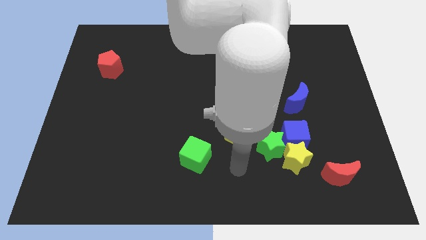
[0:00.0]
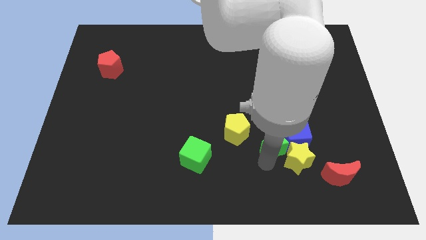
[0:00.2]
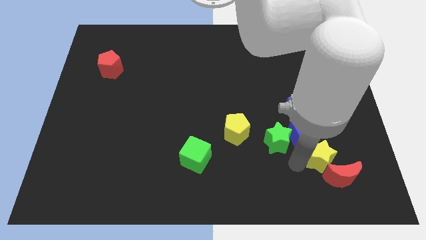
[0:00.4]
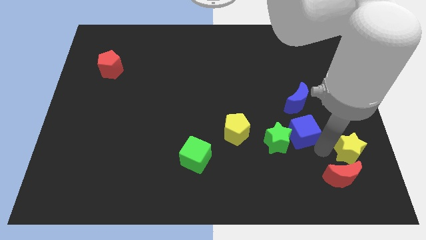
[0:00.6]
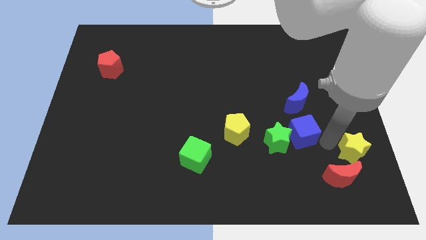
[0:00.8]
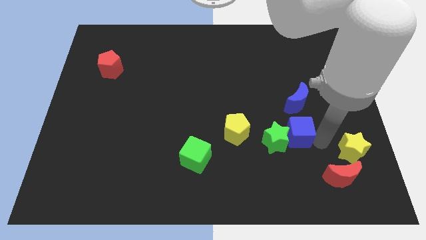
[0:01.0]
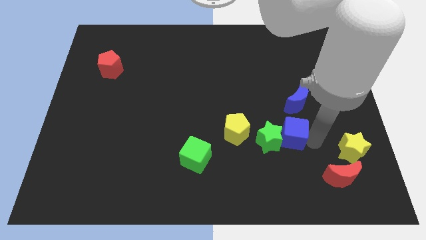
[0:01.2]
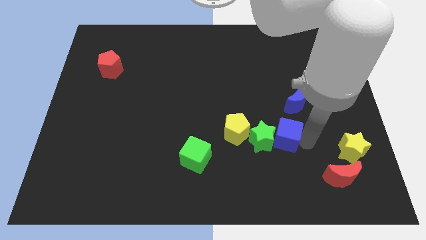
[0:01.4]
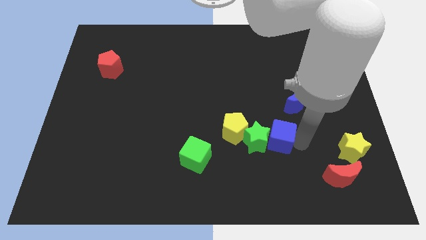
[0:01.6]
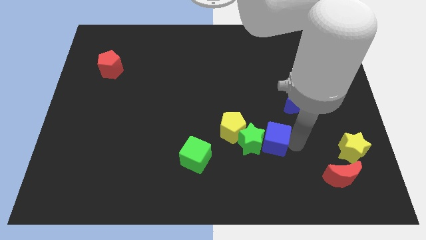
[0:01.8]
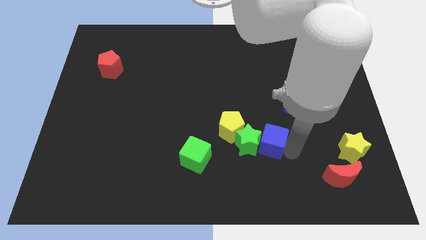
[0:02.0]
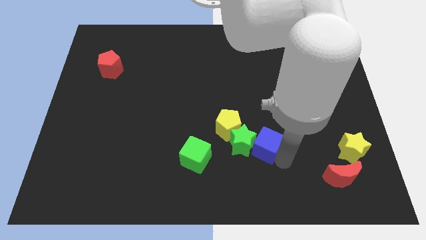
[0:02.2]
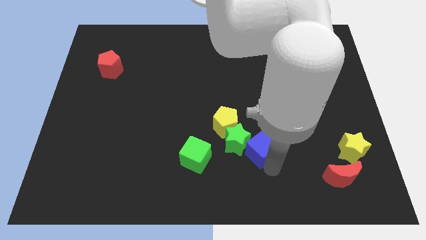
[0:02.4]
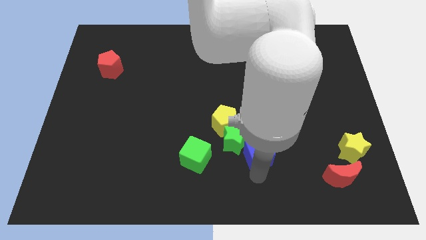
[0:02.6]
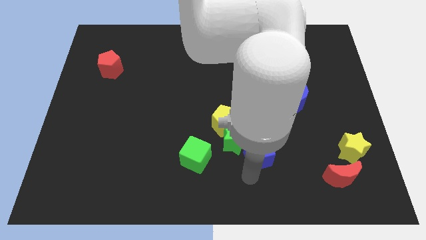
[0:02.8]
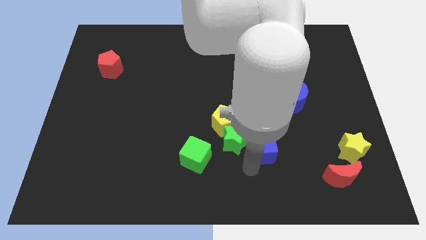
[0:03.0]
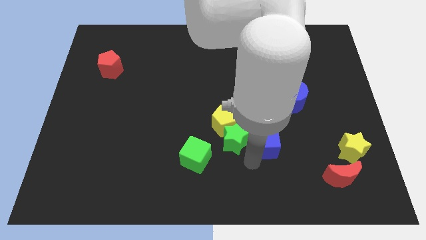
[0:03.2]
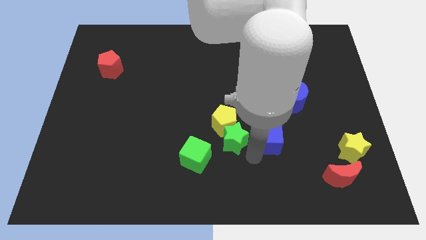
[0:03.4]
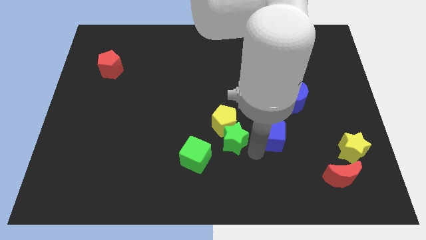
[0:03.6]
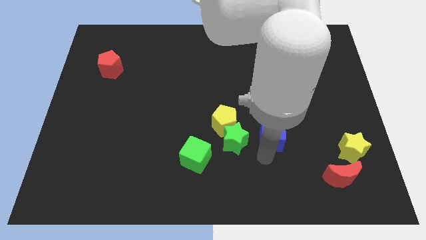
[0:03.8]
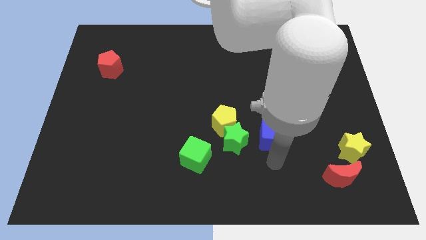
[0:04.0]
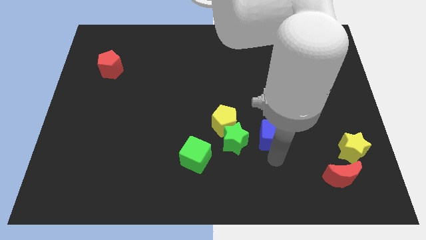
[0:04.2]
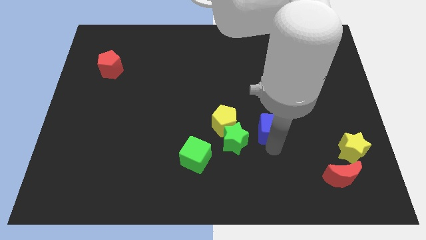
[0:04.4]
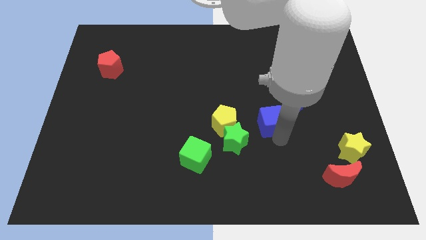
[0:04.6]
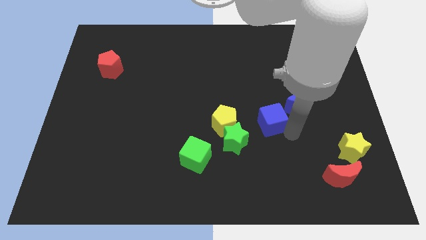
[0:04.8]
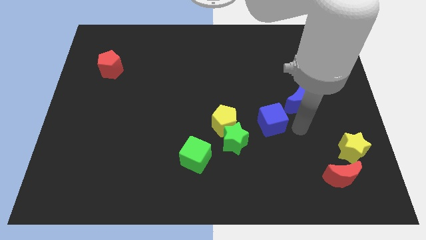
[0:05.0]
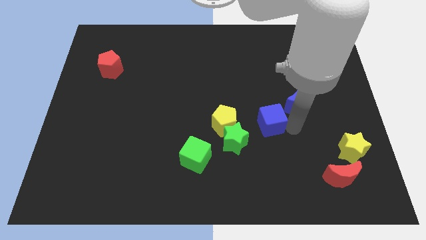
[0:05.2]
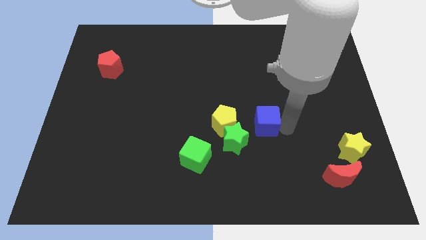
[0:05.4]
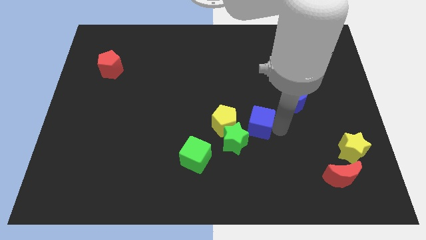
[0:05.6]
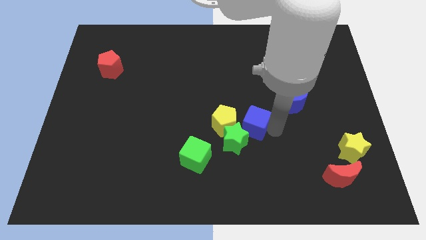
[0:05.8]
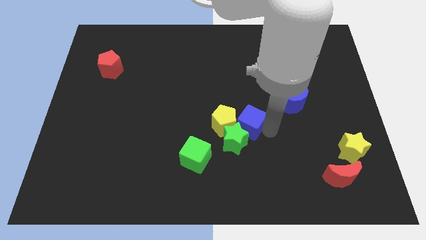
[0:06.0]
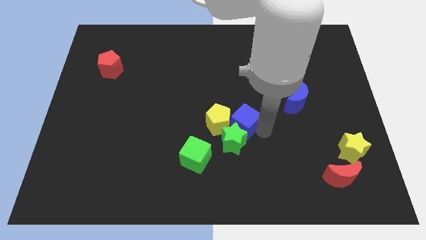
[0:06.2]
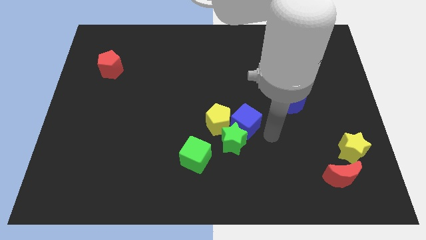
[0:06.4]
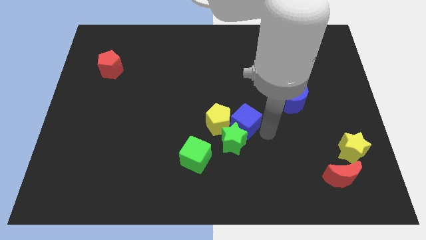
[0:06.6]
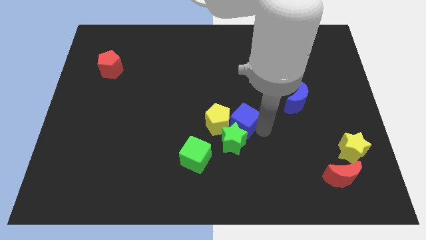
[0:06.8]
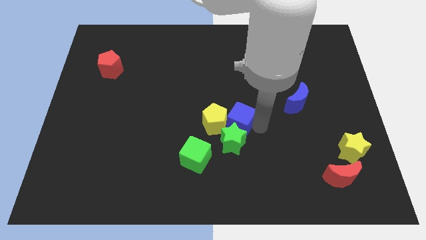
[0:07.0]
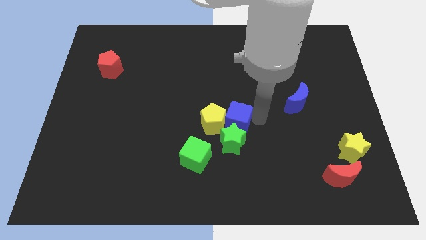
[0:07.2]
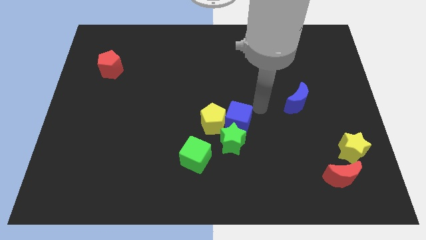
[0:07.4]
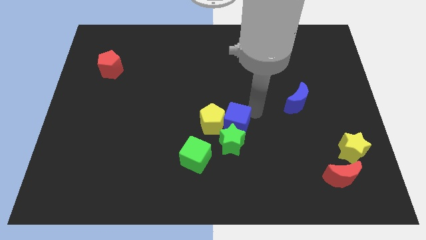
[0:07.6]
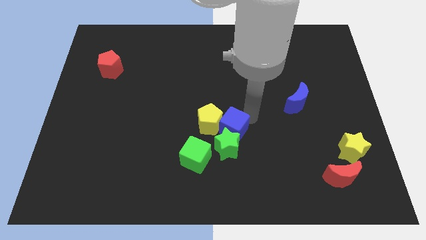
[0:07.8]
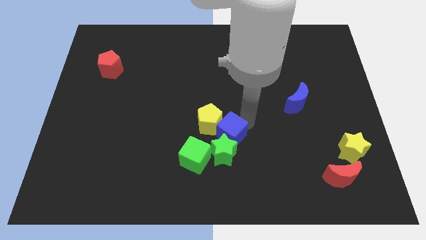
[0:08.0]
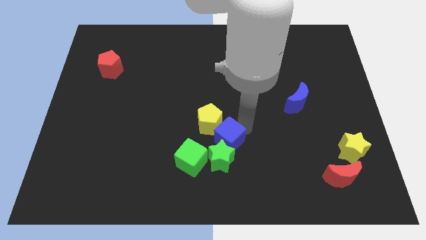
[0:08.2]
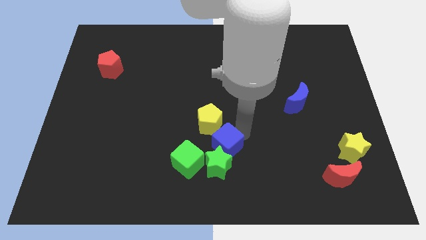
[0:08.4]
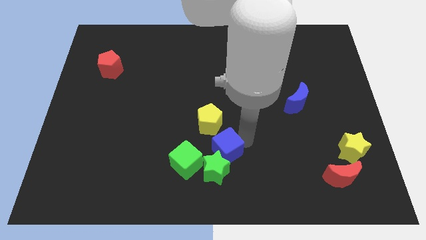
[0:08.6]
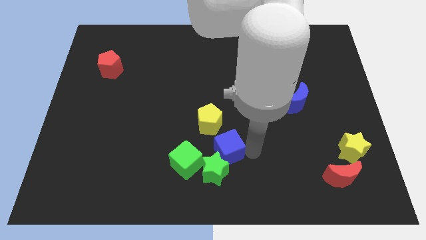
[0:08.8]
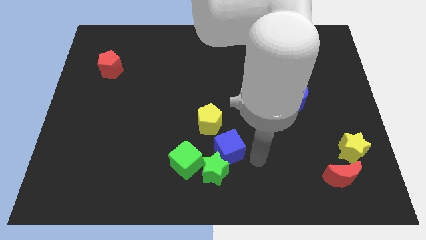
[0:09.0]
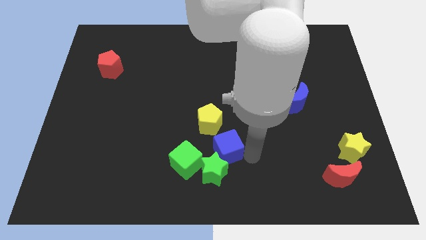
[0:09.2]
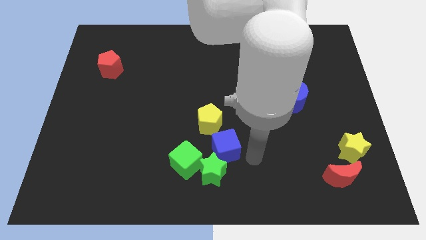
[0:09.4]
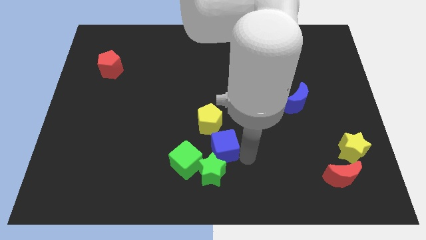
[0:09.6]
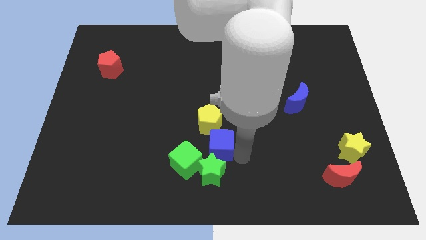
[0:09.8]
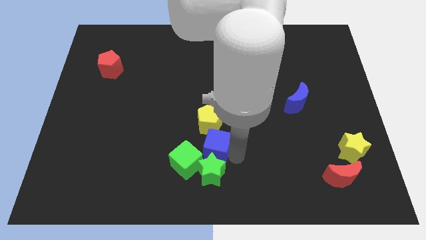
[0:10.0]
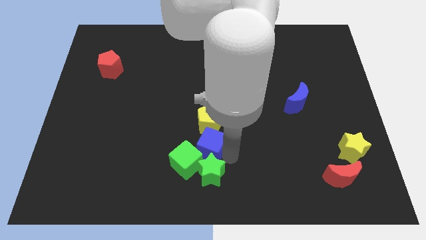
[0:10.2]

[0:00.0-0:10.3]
push the blue cube to the green cube

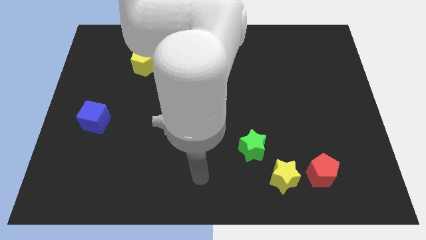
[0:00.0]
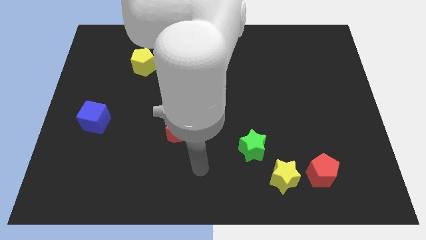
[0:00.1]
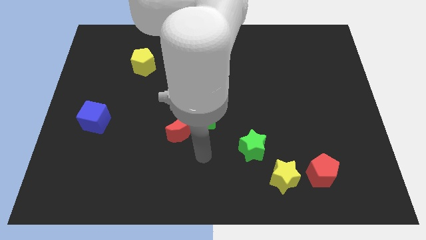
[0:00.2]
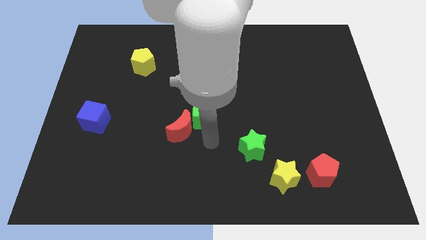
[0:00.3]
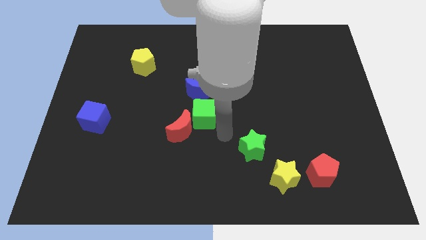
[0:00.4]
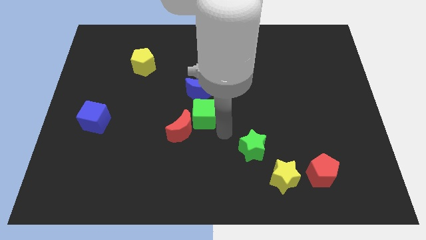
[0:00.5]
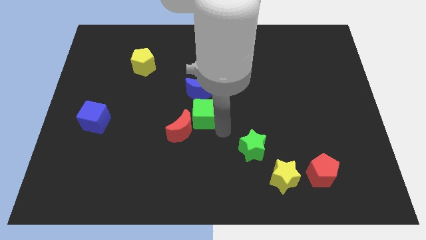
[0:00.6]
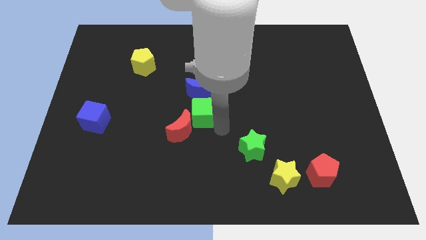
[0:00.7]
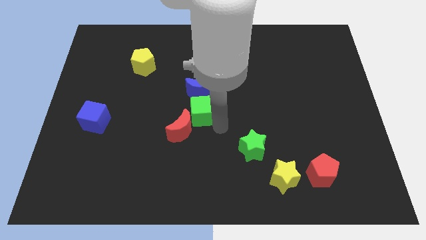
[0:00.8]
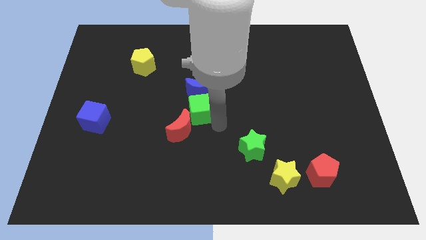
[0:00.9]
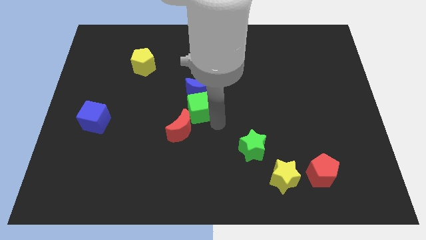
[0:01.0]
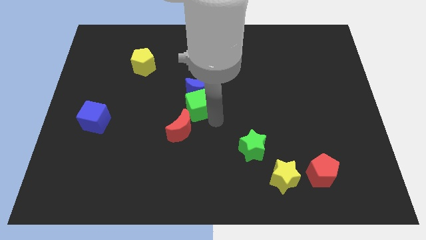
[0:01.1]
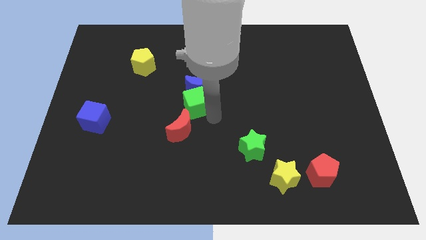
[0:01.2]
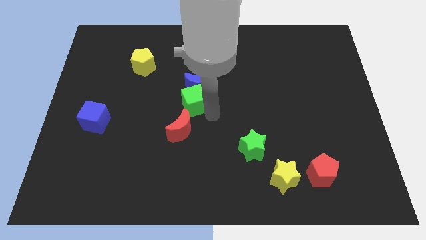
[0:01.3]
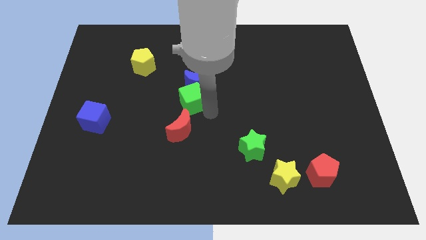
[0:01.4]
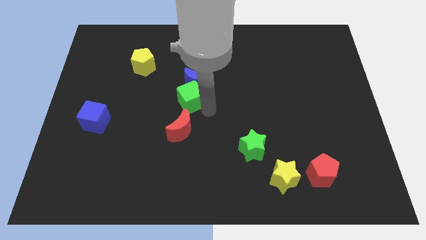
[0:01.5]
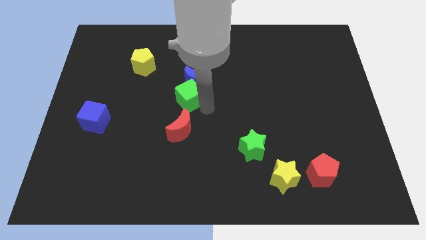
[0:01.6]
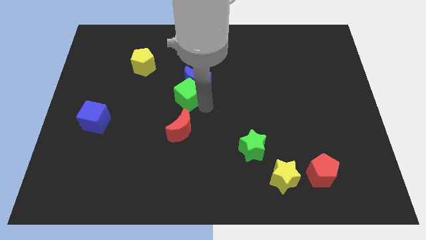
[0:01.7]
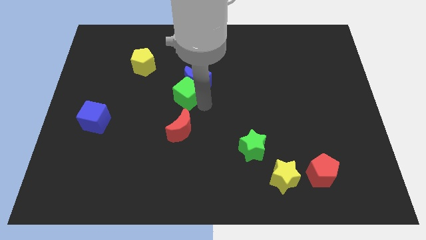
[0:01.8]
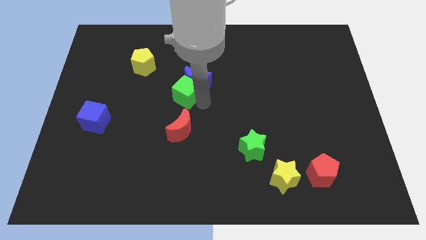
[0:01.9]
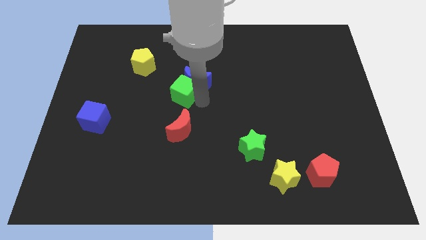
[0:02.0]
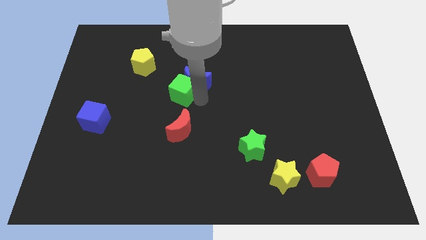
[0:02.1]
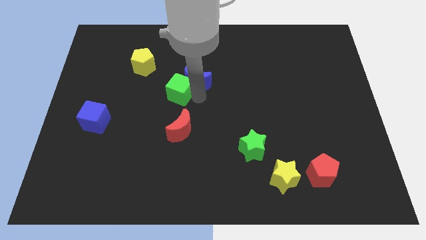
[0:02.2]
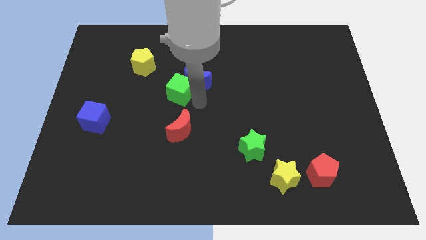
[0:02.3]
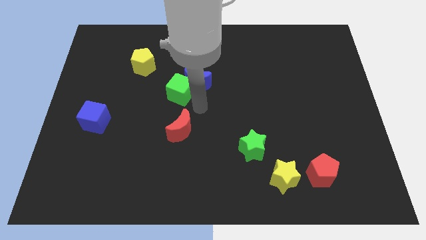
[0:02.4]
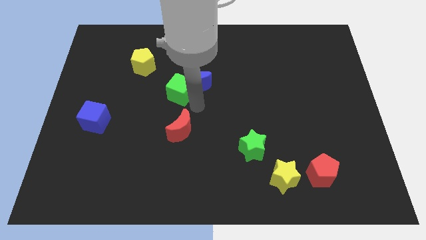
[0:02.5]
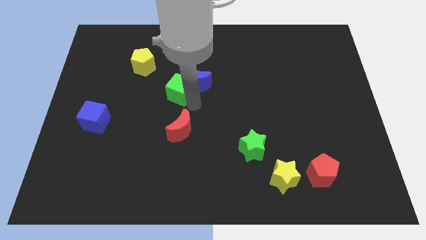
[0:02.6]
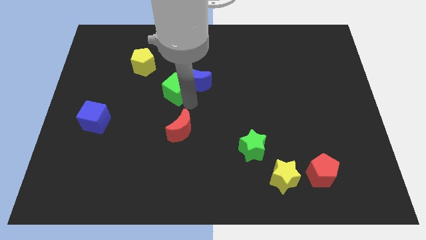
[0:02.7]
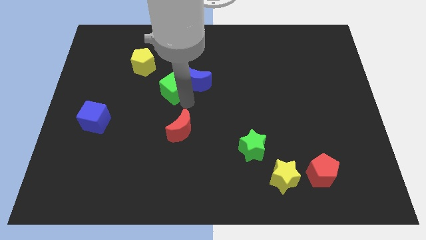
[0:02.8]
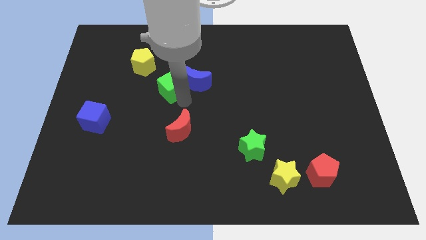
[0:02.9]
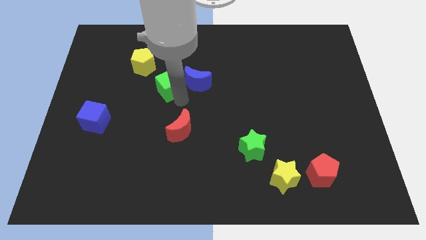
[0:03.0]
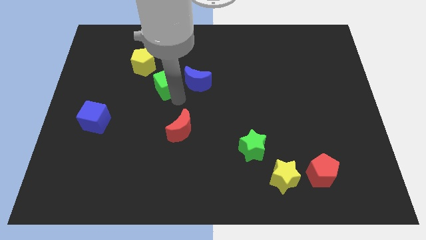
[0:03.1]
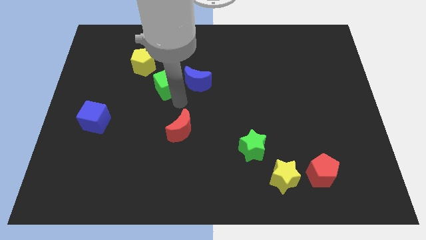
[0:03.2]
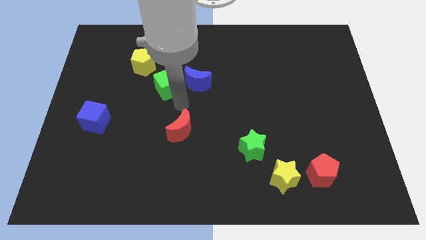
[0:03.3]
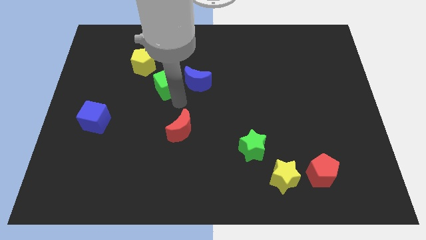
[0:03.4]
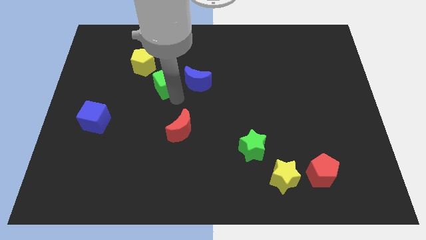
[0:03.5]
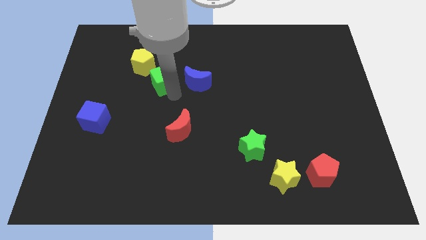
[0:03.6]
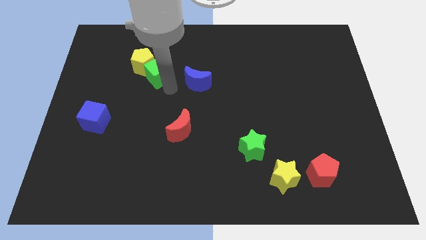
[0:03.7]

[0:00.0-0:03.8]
put the green cube next to the yellow pentagon
